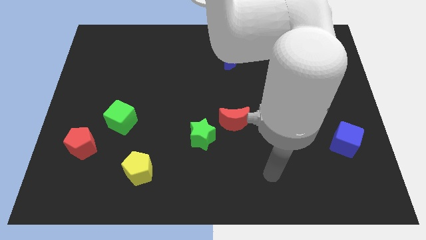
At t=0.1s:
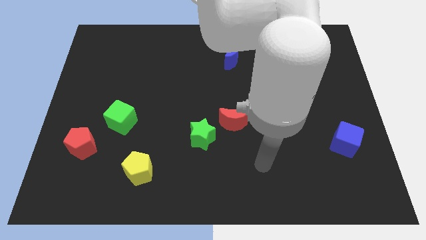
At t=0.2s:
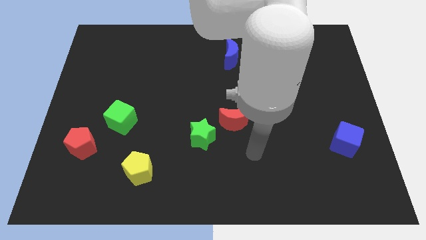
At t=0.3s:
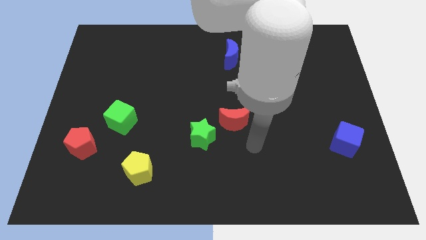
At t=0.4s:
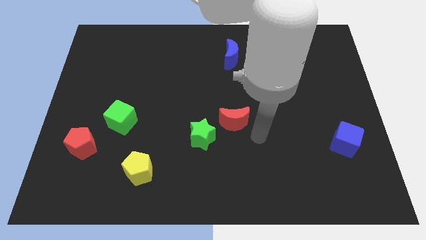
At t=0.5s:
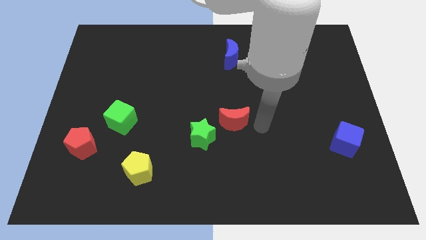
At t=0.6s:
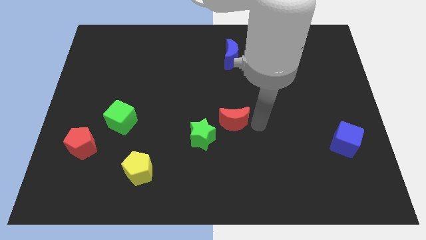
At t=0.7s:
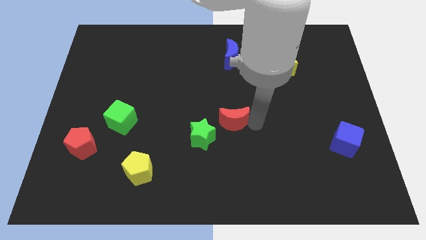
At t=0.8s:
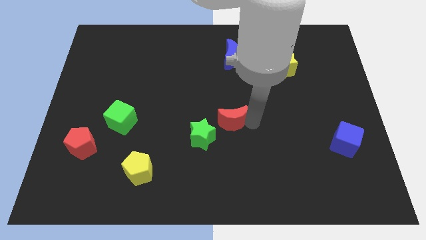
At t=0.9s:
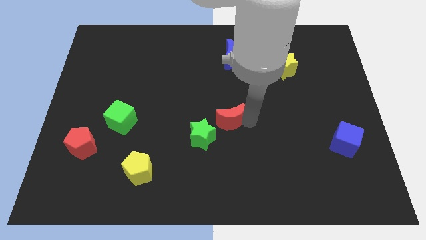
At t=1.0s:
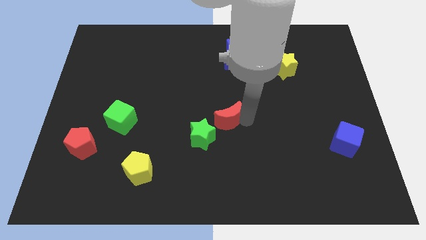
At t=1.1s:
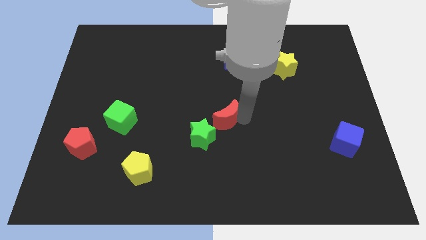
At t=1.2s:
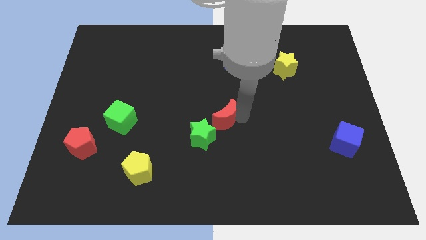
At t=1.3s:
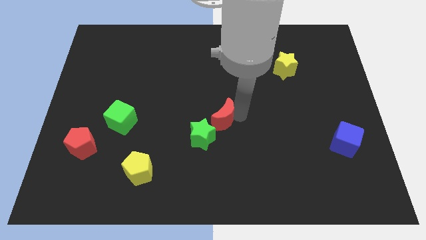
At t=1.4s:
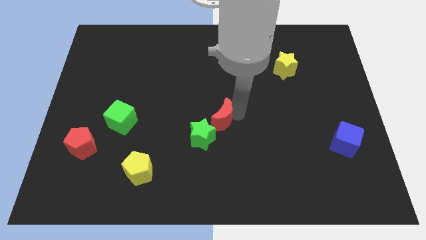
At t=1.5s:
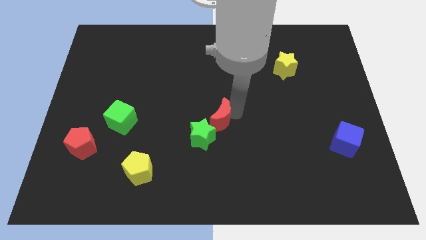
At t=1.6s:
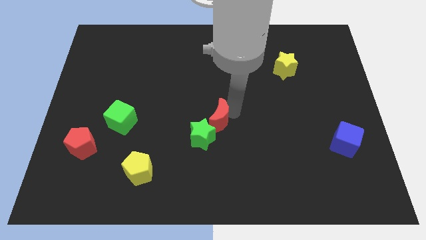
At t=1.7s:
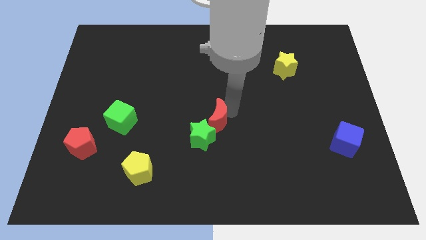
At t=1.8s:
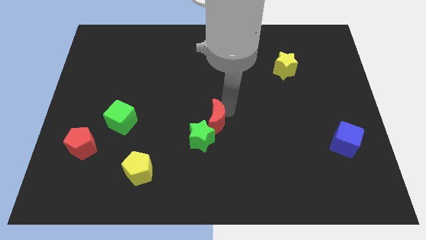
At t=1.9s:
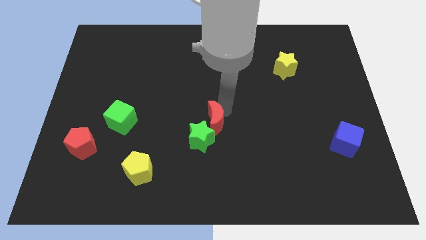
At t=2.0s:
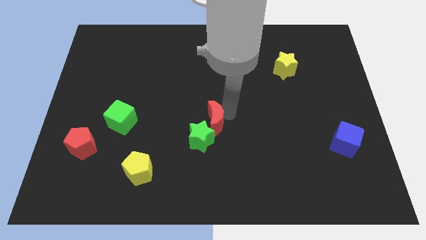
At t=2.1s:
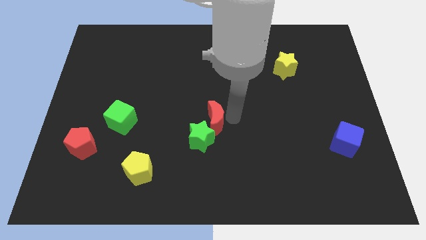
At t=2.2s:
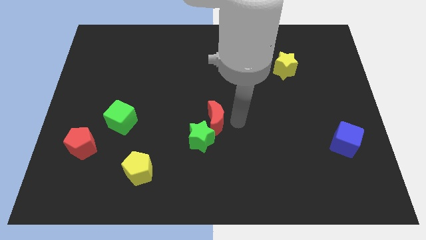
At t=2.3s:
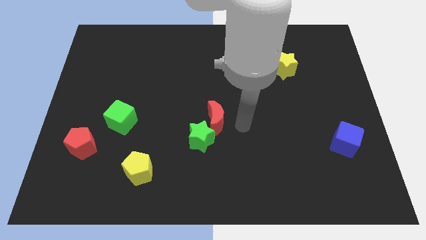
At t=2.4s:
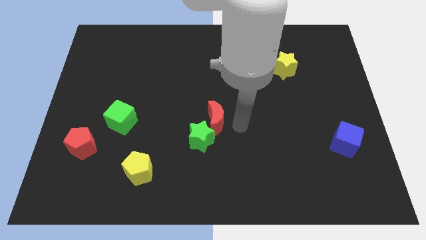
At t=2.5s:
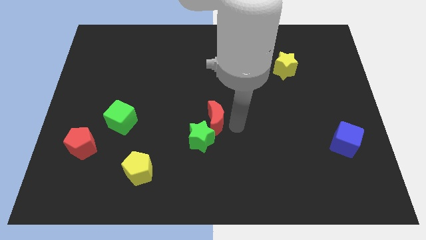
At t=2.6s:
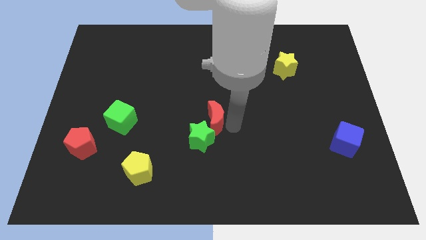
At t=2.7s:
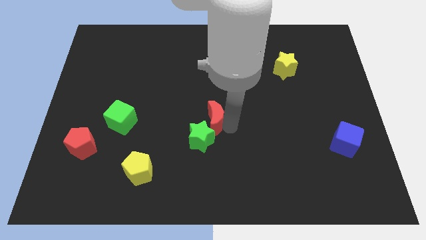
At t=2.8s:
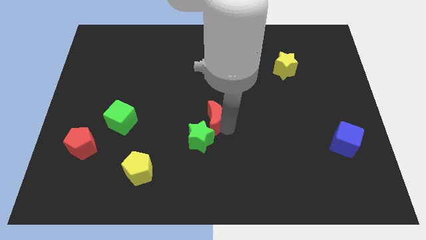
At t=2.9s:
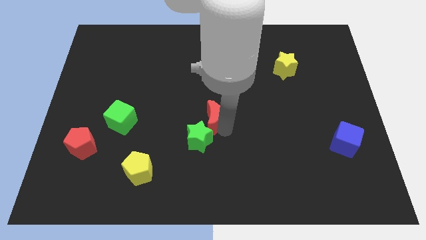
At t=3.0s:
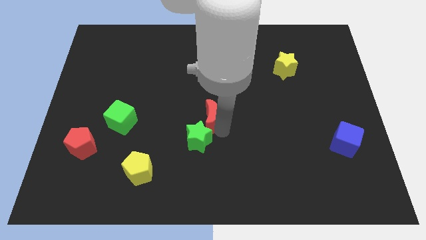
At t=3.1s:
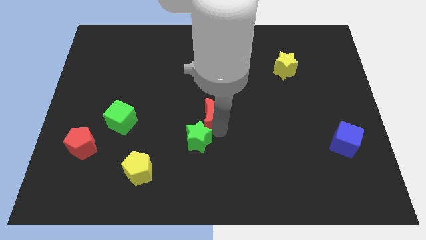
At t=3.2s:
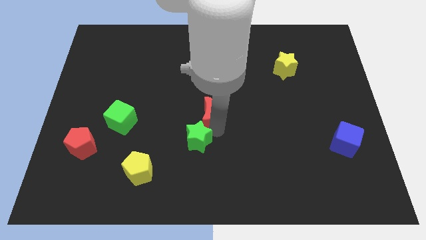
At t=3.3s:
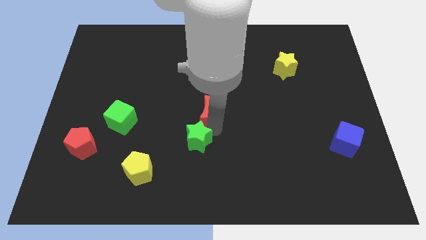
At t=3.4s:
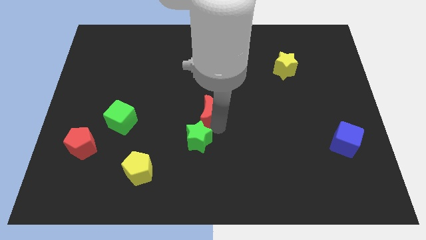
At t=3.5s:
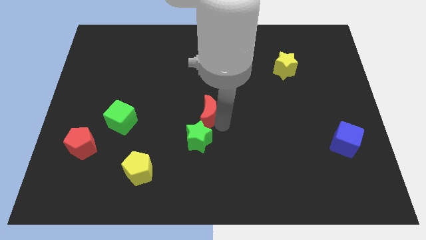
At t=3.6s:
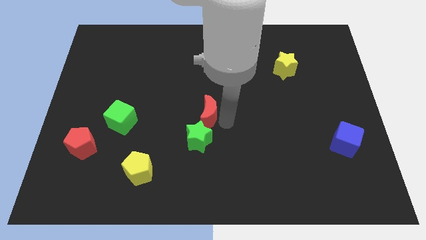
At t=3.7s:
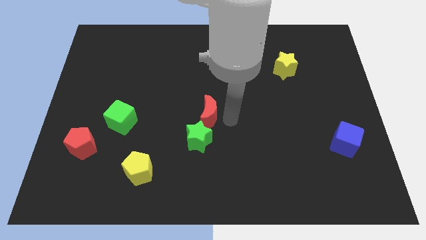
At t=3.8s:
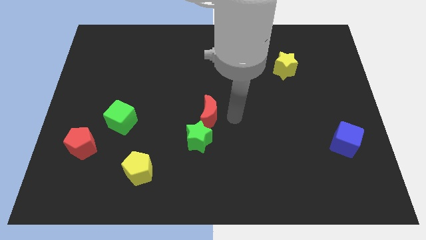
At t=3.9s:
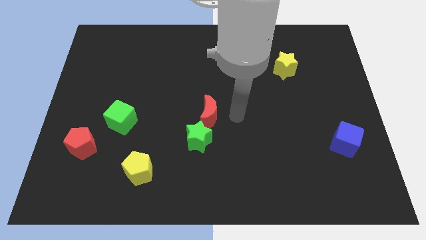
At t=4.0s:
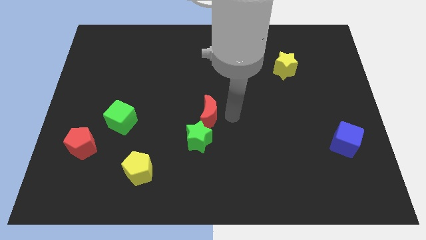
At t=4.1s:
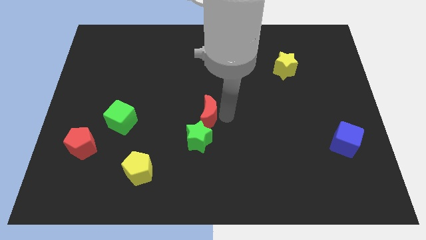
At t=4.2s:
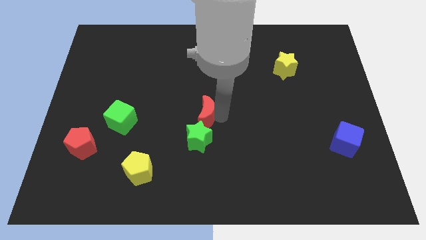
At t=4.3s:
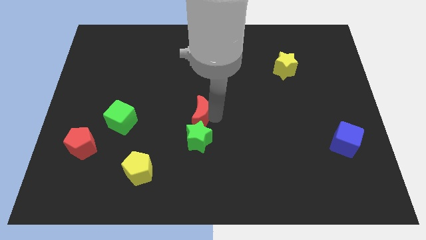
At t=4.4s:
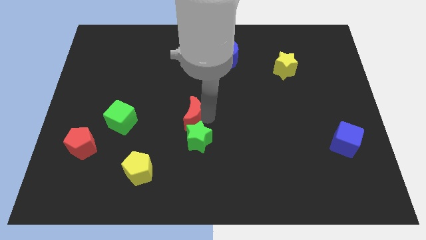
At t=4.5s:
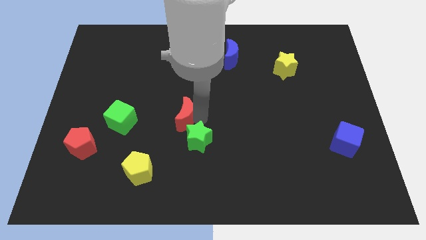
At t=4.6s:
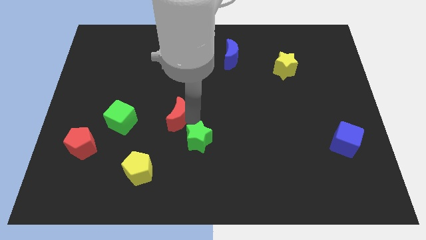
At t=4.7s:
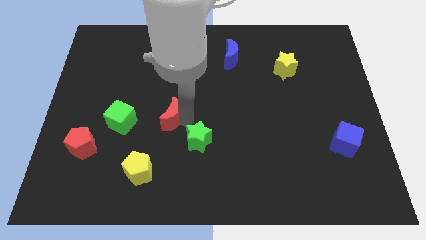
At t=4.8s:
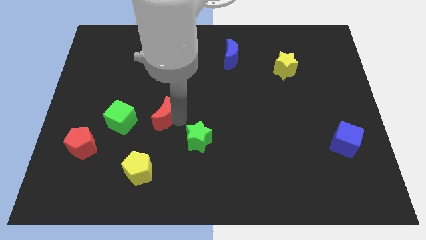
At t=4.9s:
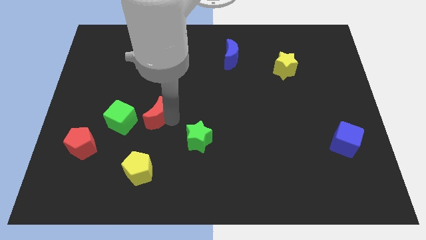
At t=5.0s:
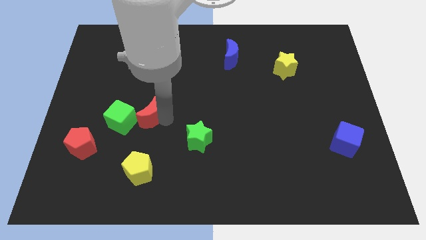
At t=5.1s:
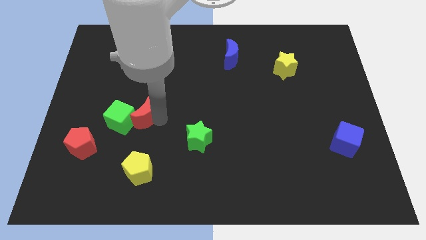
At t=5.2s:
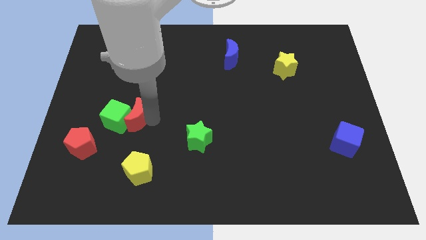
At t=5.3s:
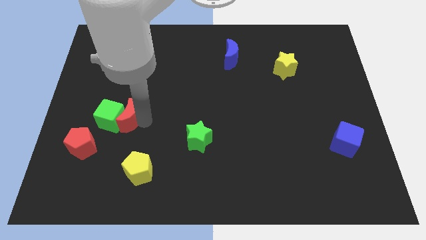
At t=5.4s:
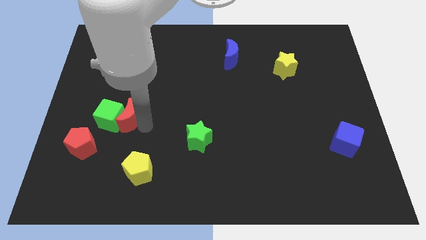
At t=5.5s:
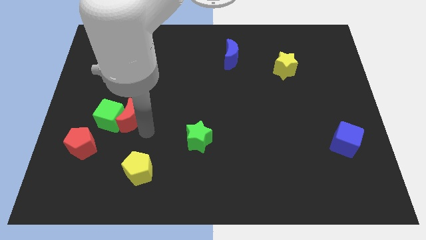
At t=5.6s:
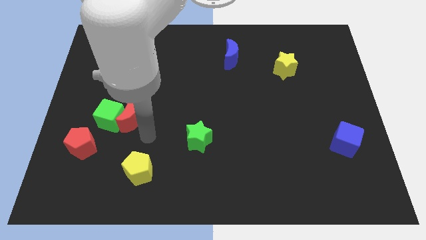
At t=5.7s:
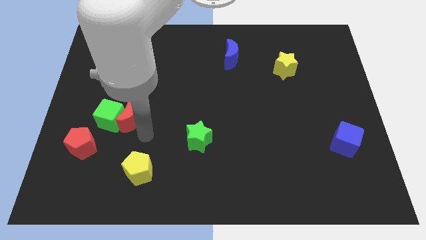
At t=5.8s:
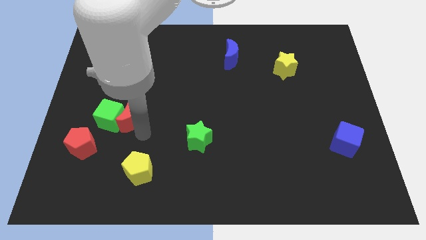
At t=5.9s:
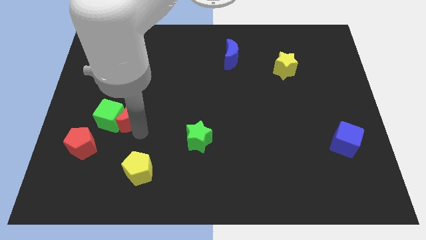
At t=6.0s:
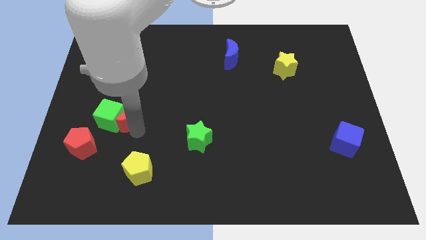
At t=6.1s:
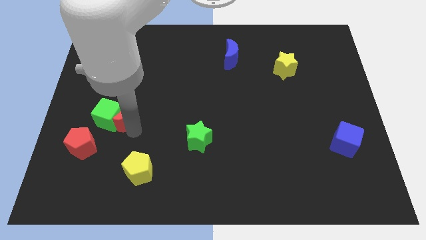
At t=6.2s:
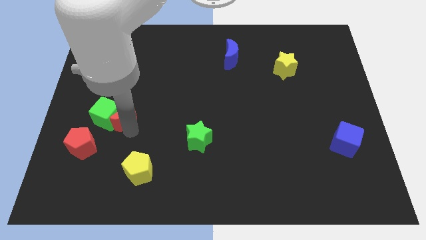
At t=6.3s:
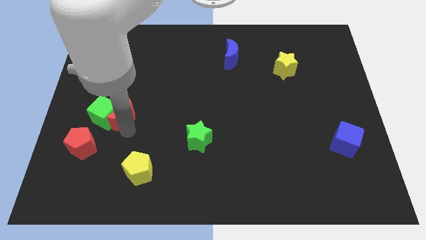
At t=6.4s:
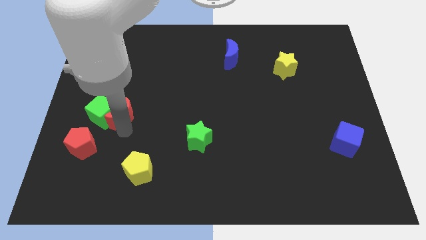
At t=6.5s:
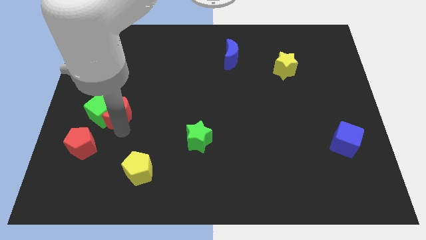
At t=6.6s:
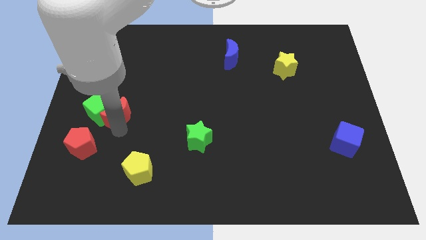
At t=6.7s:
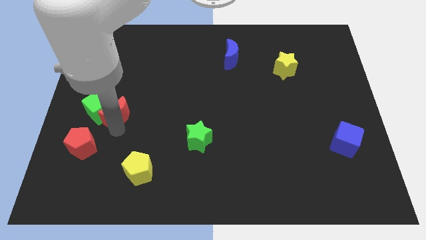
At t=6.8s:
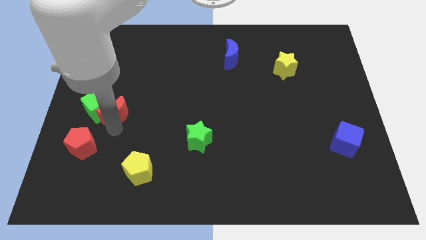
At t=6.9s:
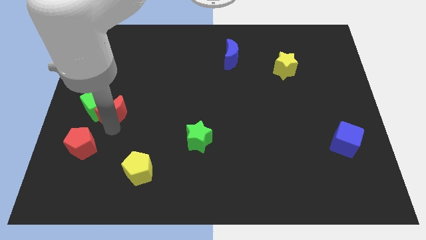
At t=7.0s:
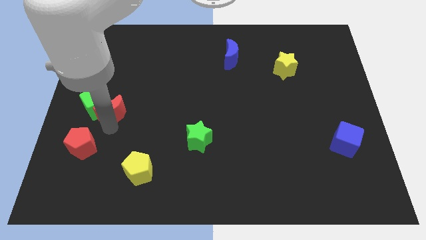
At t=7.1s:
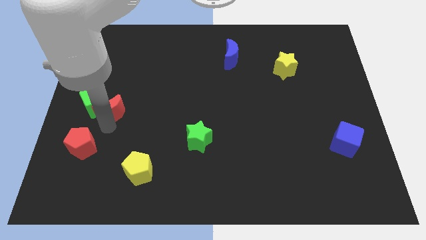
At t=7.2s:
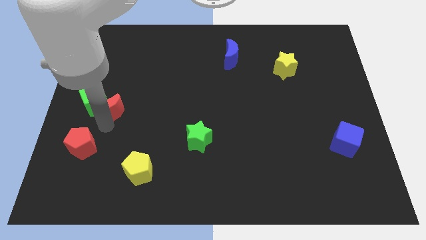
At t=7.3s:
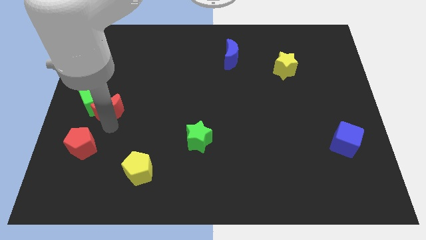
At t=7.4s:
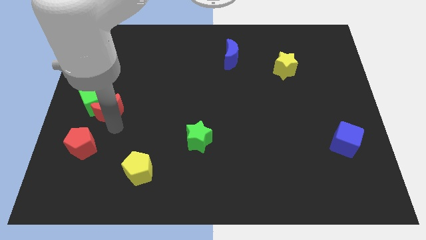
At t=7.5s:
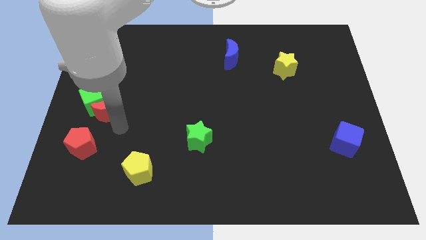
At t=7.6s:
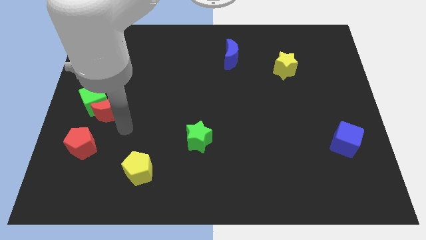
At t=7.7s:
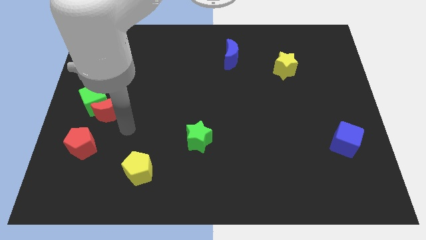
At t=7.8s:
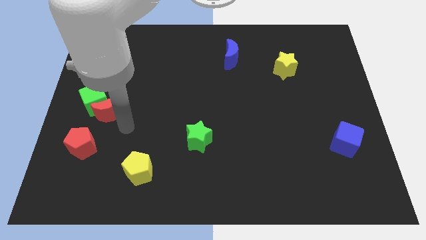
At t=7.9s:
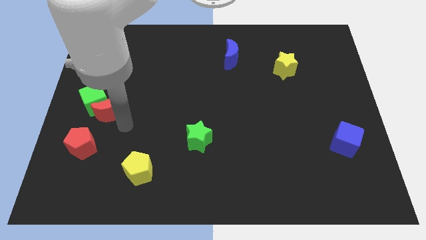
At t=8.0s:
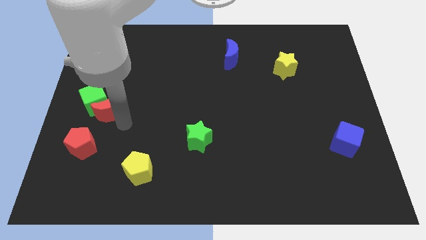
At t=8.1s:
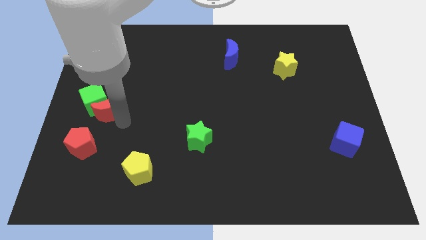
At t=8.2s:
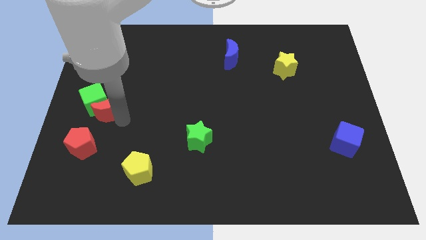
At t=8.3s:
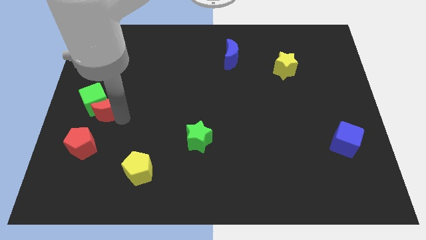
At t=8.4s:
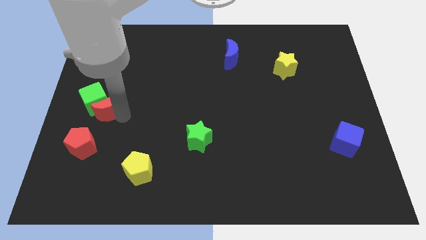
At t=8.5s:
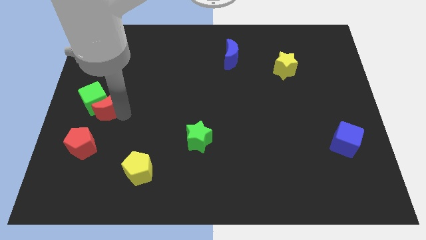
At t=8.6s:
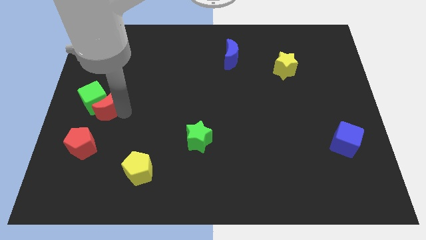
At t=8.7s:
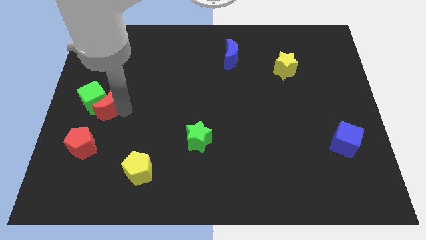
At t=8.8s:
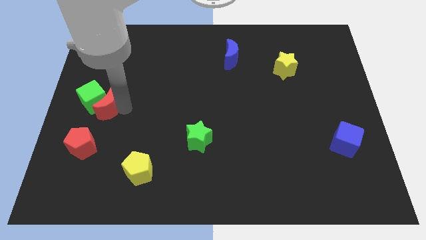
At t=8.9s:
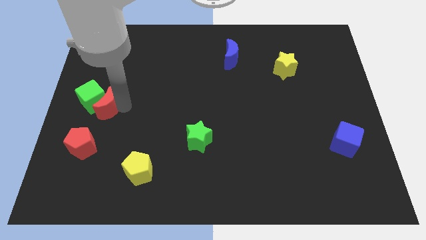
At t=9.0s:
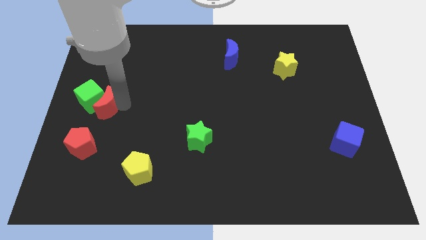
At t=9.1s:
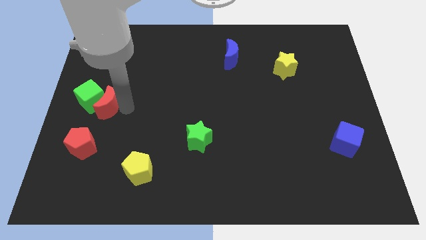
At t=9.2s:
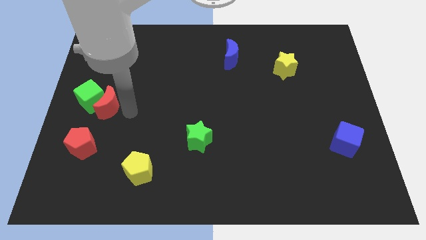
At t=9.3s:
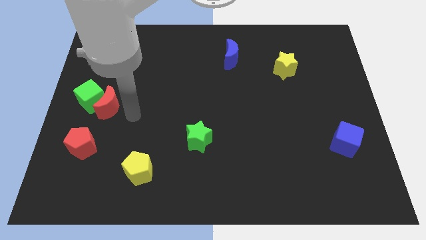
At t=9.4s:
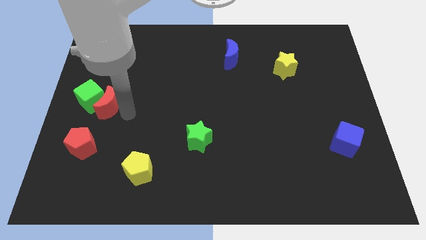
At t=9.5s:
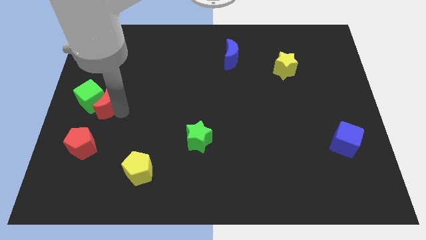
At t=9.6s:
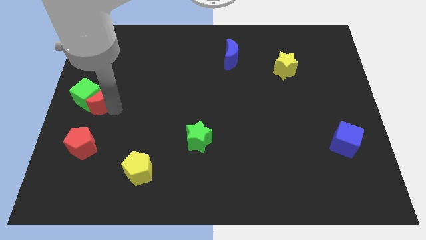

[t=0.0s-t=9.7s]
push the red moon to the left side
